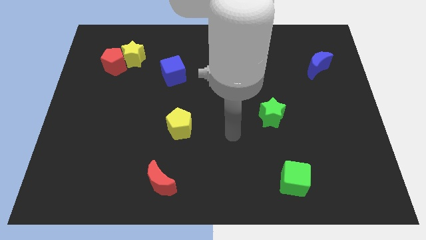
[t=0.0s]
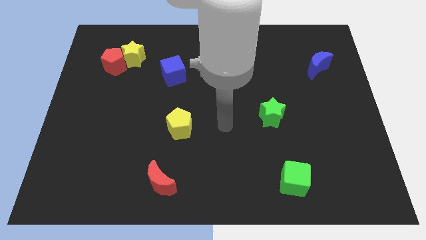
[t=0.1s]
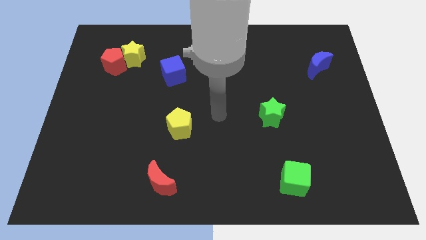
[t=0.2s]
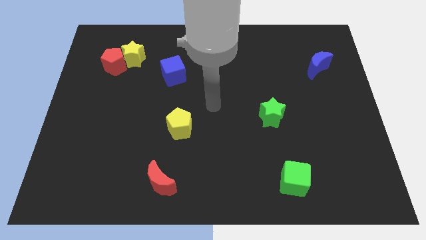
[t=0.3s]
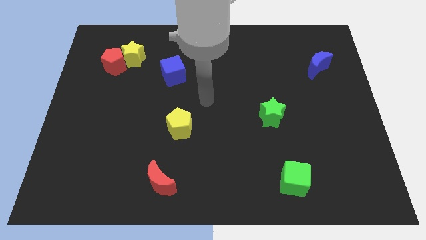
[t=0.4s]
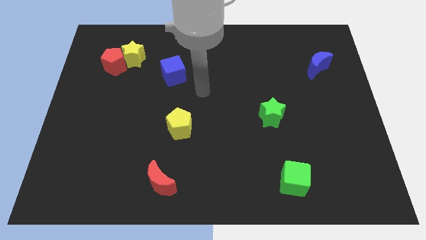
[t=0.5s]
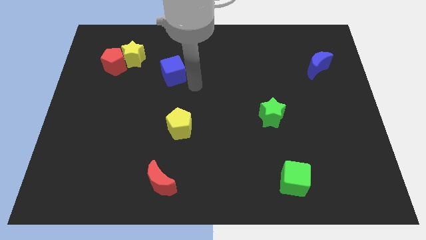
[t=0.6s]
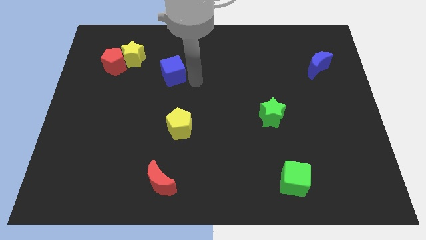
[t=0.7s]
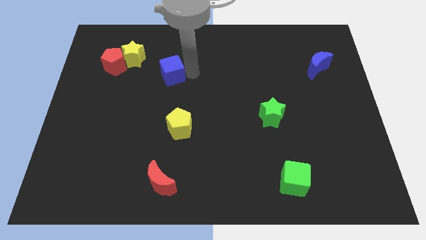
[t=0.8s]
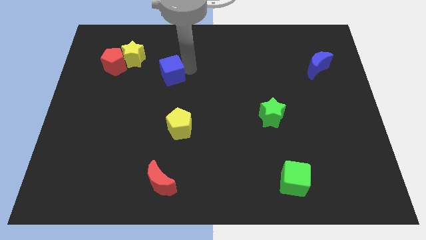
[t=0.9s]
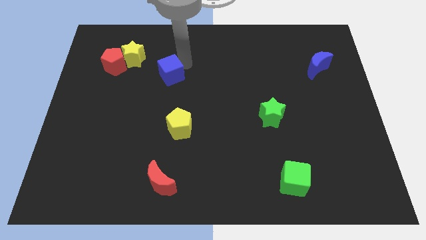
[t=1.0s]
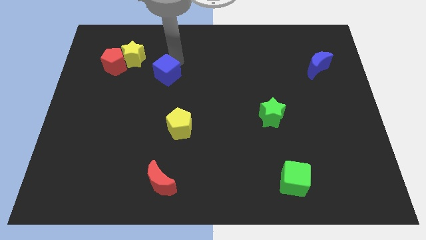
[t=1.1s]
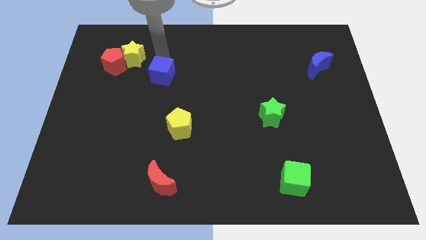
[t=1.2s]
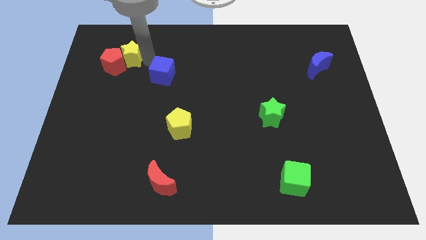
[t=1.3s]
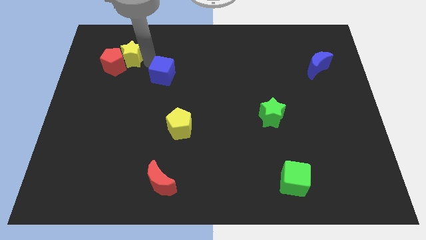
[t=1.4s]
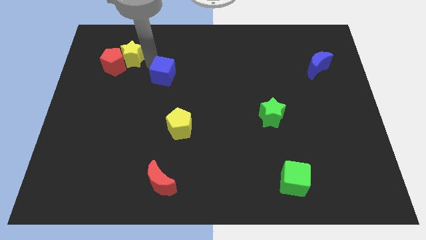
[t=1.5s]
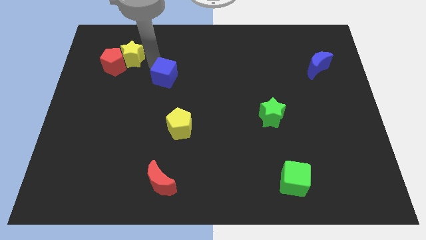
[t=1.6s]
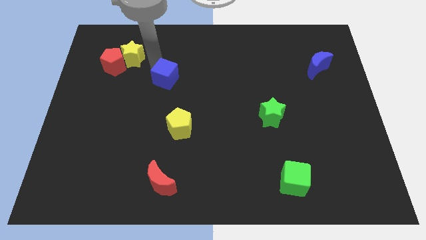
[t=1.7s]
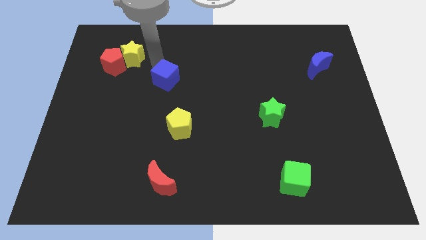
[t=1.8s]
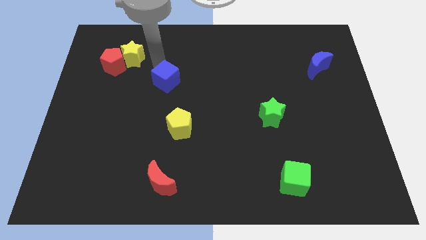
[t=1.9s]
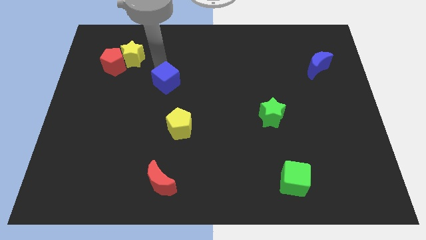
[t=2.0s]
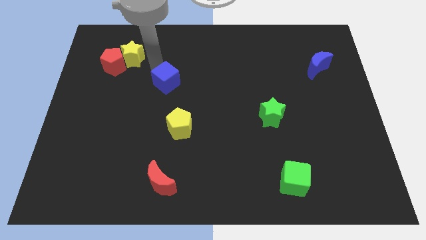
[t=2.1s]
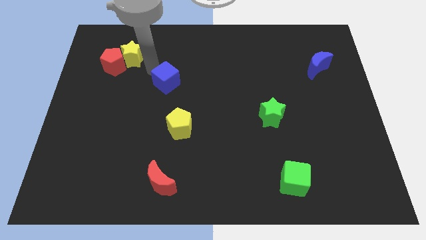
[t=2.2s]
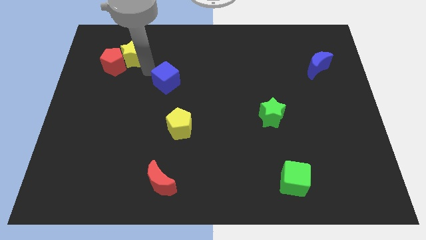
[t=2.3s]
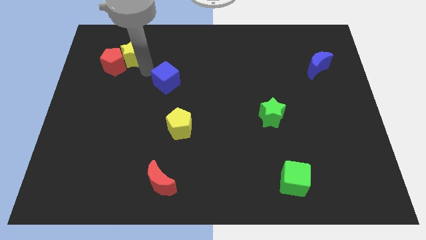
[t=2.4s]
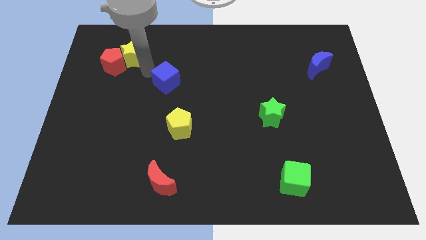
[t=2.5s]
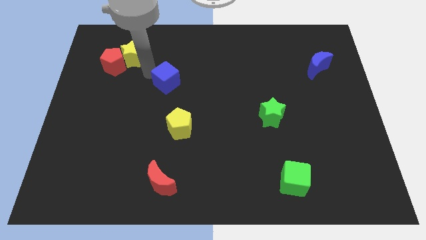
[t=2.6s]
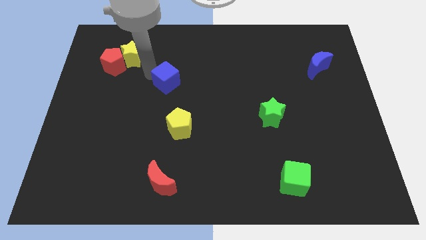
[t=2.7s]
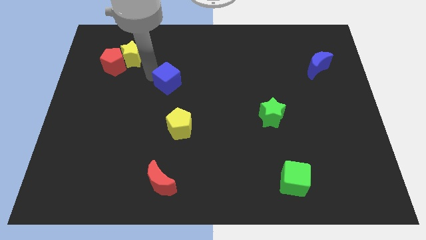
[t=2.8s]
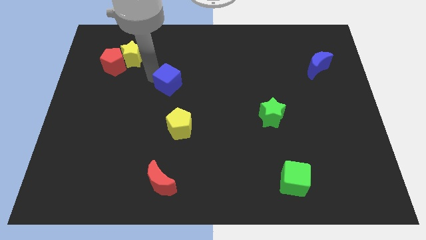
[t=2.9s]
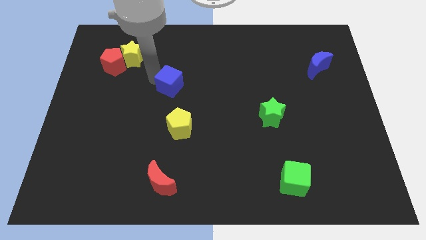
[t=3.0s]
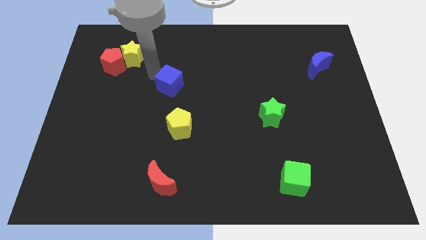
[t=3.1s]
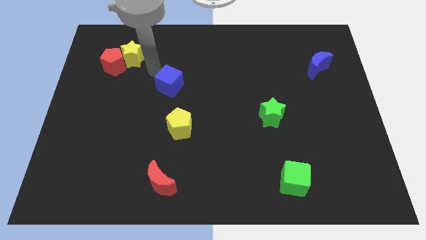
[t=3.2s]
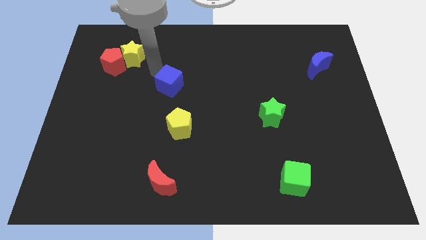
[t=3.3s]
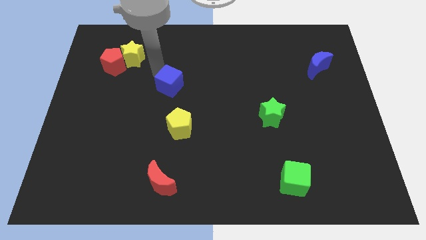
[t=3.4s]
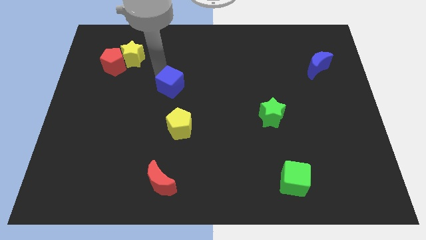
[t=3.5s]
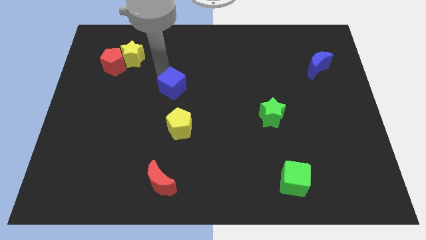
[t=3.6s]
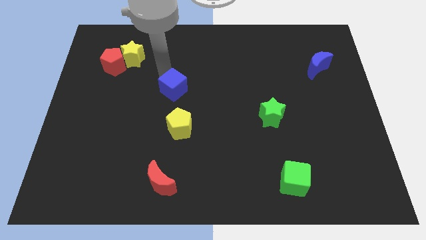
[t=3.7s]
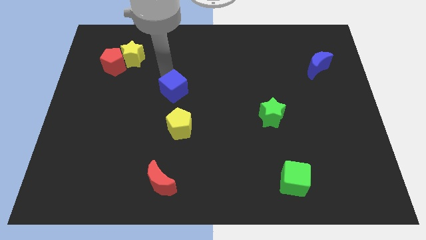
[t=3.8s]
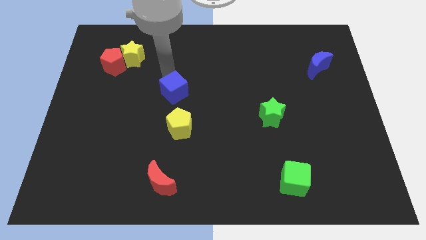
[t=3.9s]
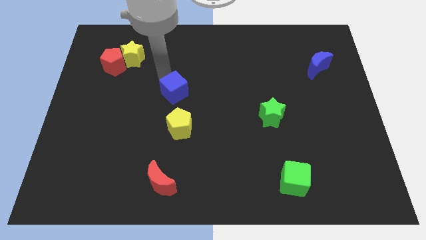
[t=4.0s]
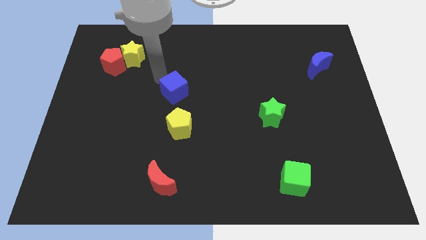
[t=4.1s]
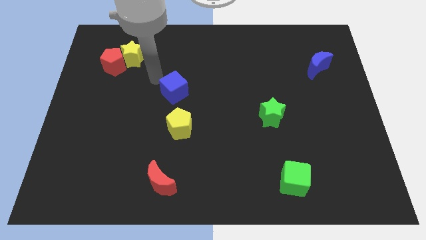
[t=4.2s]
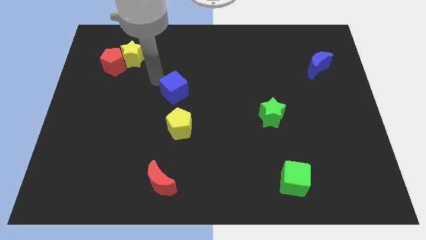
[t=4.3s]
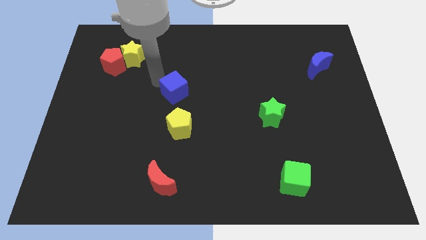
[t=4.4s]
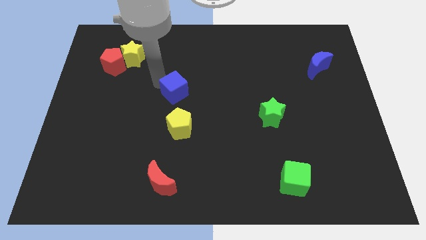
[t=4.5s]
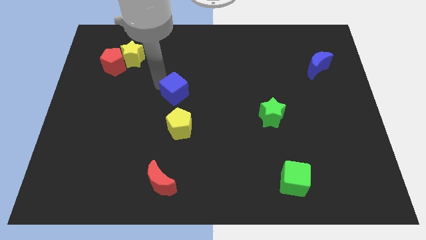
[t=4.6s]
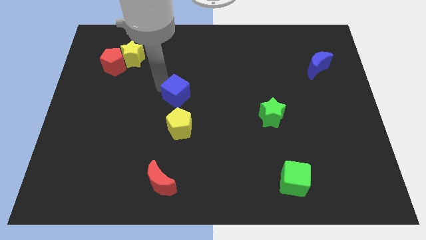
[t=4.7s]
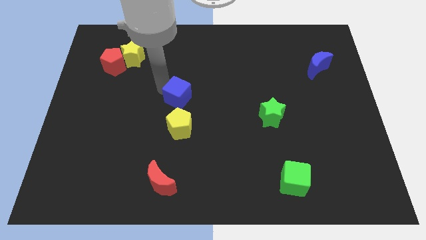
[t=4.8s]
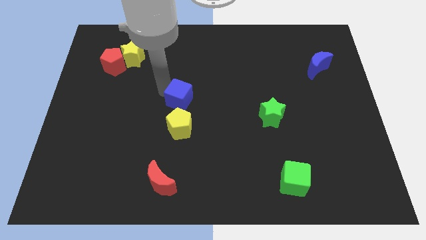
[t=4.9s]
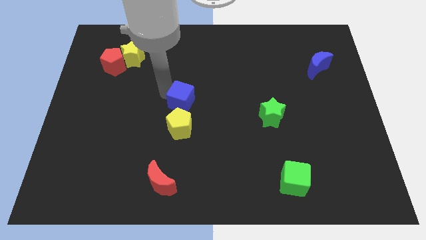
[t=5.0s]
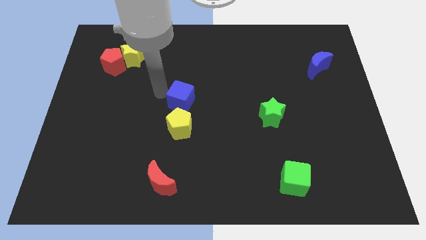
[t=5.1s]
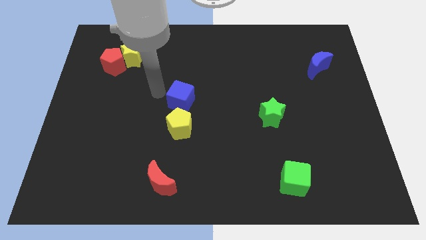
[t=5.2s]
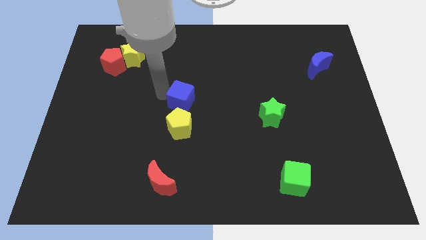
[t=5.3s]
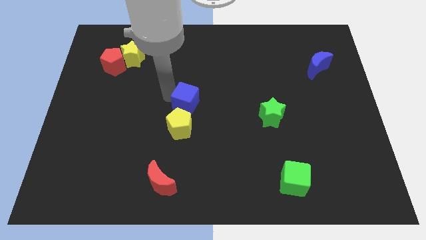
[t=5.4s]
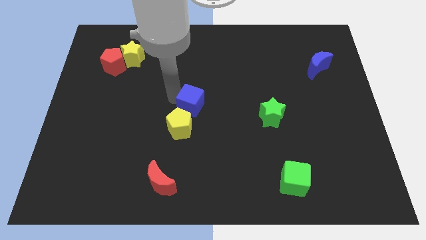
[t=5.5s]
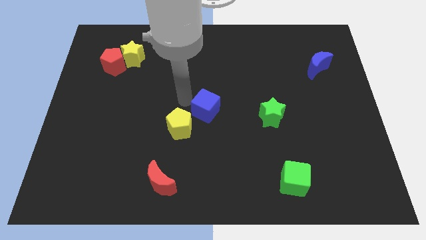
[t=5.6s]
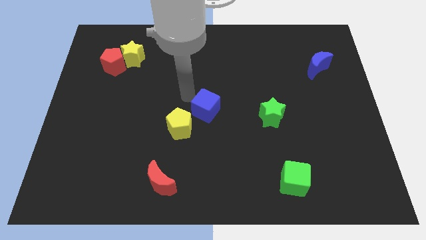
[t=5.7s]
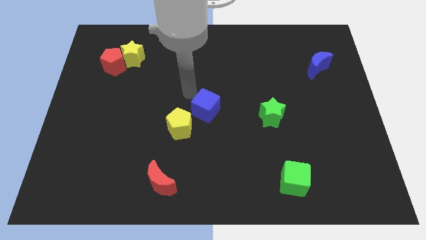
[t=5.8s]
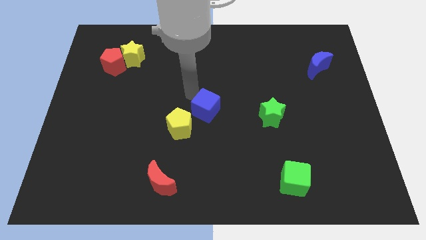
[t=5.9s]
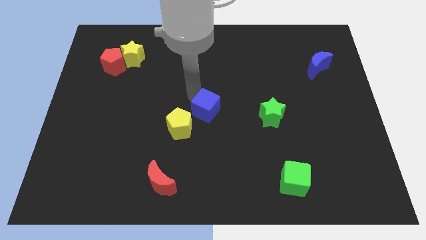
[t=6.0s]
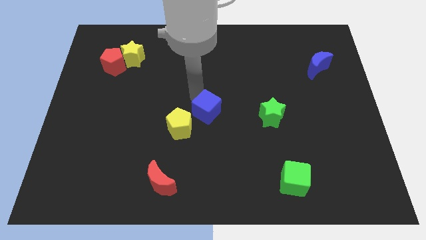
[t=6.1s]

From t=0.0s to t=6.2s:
push the blue cube right of the yellow pentagon
